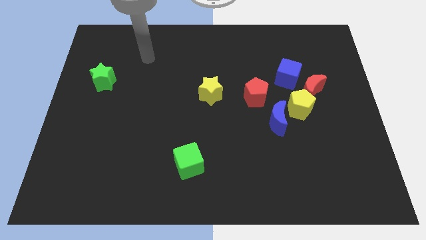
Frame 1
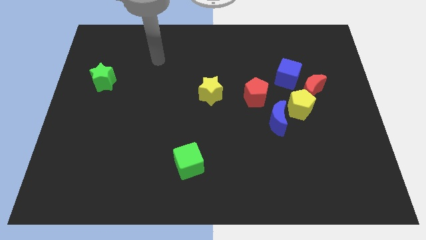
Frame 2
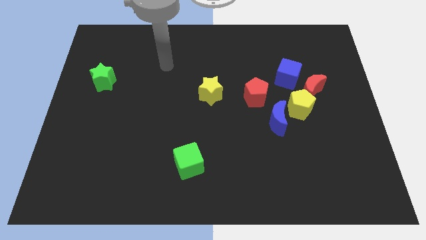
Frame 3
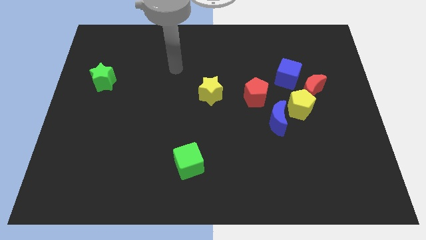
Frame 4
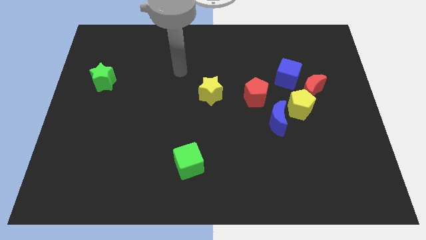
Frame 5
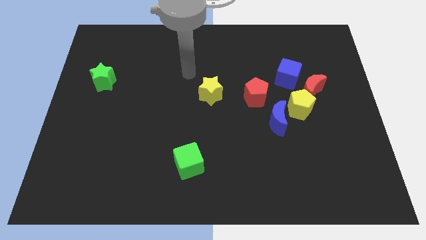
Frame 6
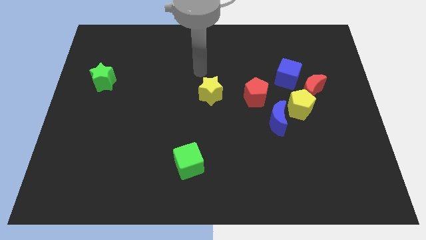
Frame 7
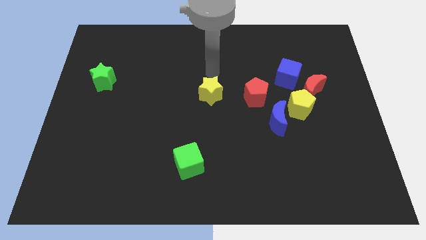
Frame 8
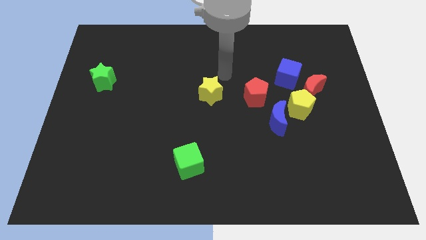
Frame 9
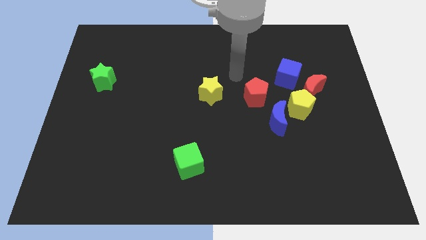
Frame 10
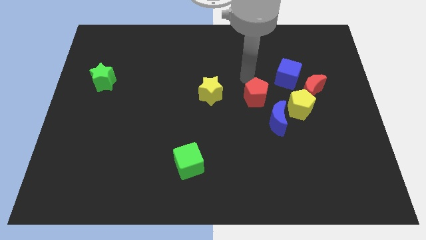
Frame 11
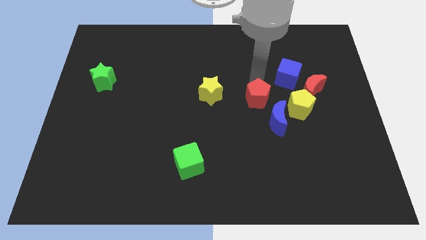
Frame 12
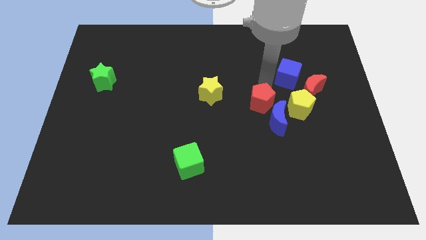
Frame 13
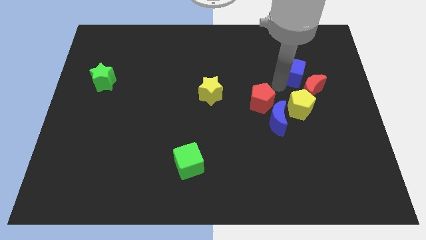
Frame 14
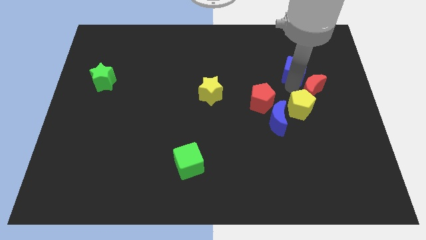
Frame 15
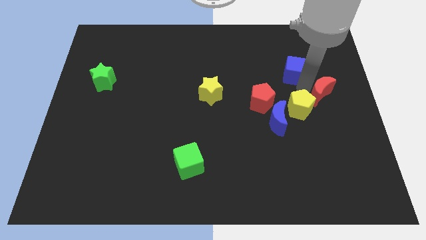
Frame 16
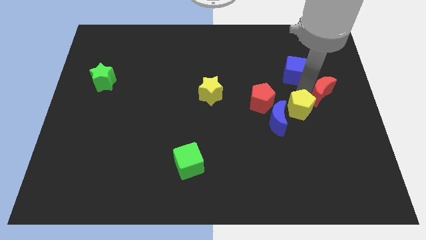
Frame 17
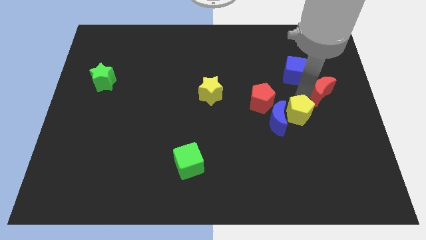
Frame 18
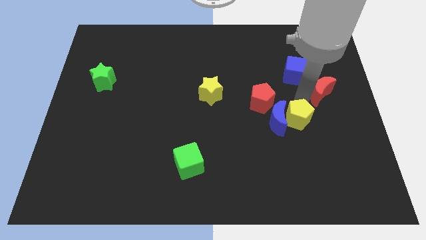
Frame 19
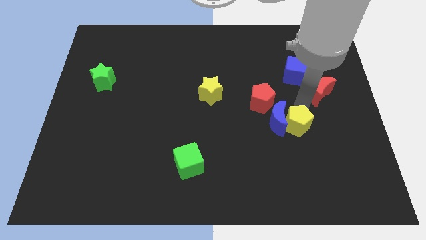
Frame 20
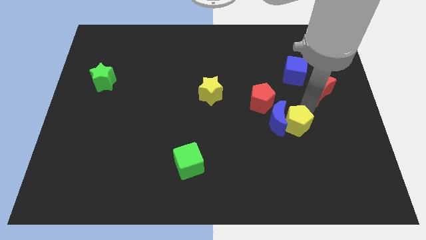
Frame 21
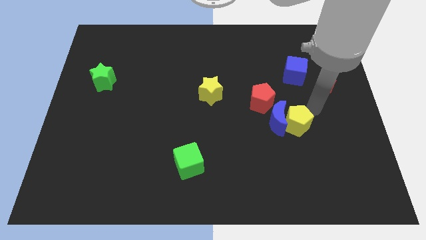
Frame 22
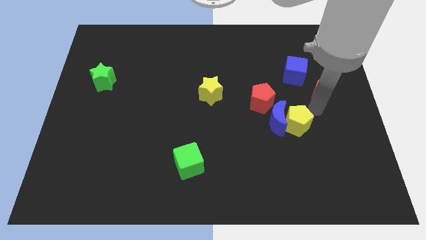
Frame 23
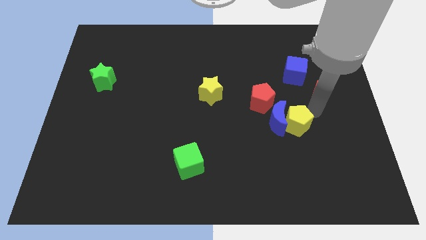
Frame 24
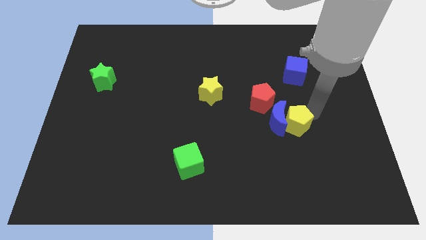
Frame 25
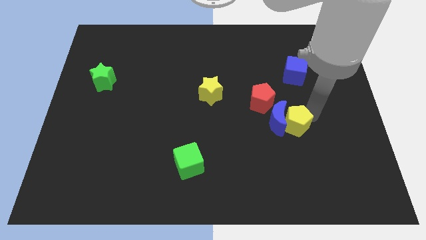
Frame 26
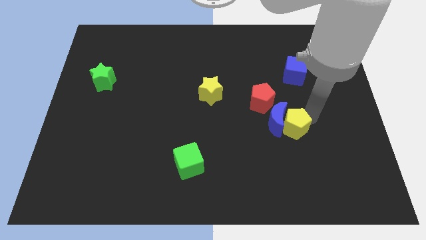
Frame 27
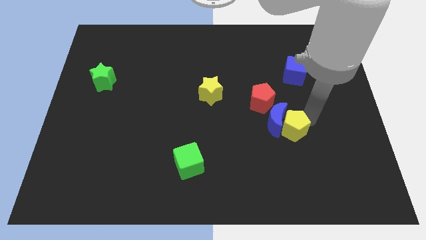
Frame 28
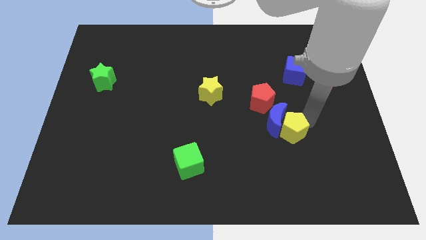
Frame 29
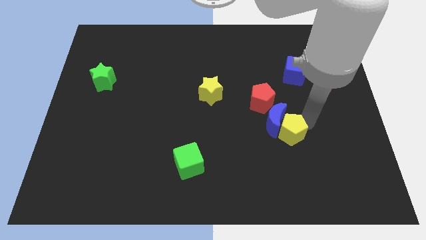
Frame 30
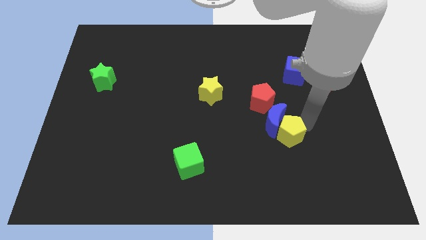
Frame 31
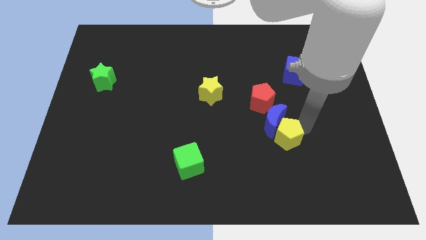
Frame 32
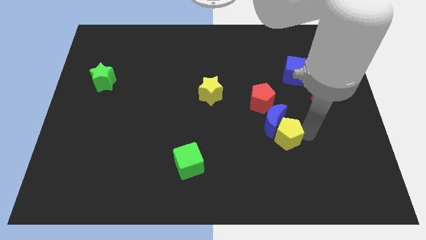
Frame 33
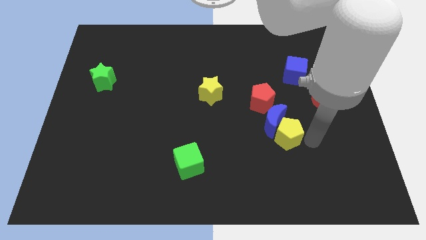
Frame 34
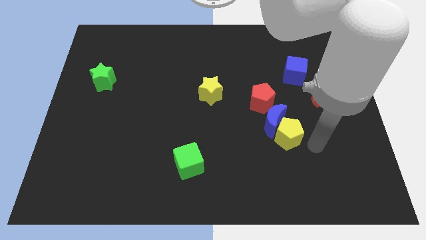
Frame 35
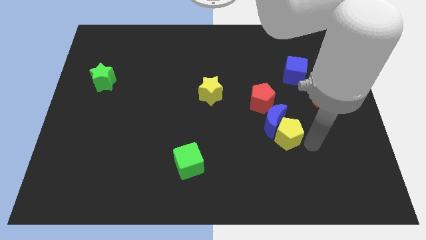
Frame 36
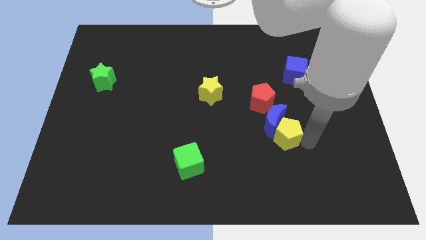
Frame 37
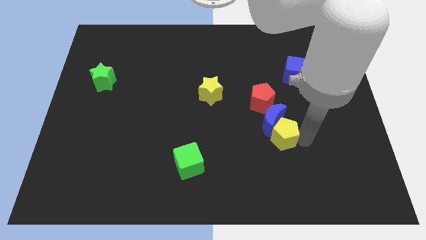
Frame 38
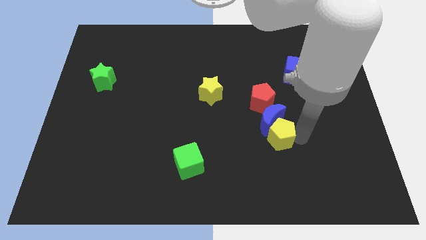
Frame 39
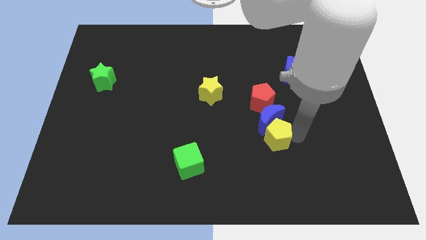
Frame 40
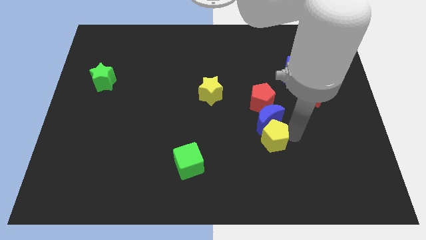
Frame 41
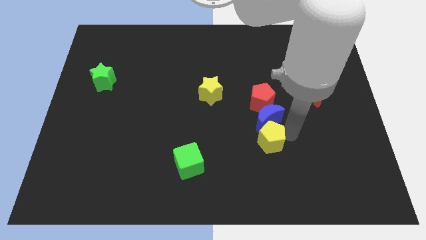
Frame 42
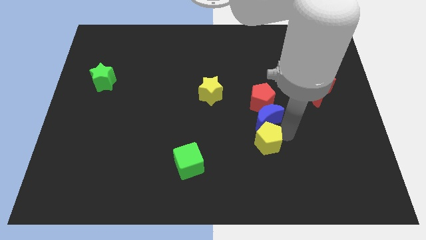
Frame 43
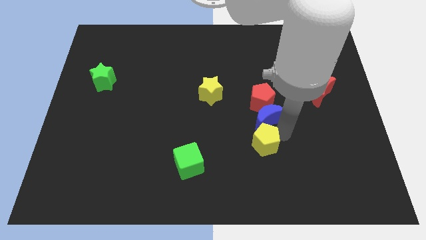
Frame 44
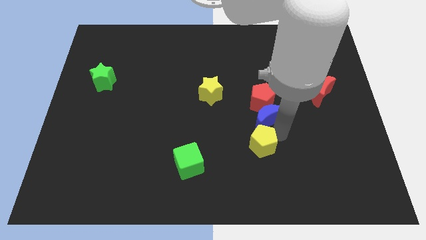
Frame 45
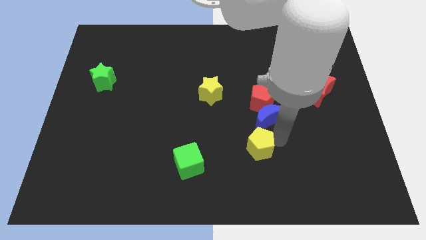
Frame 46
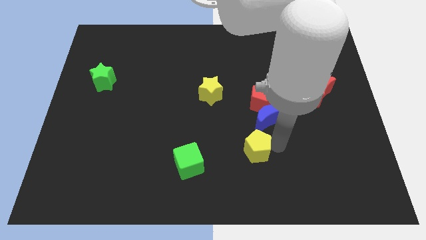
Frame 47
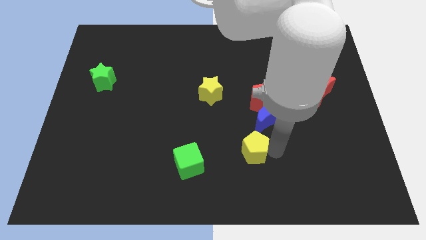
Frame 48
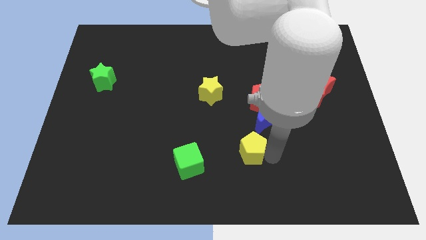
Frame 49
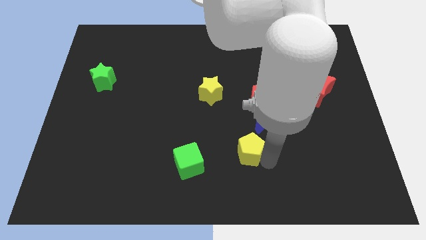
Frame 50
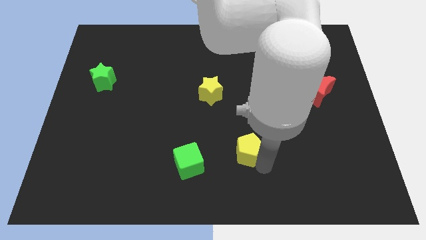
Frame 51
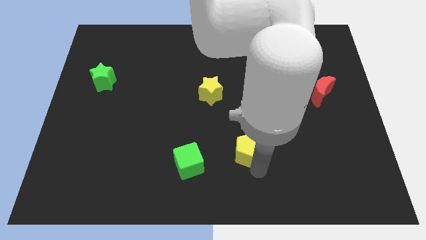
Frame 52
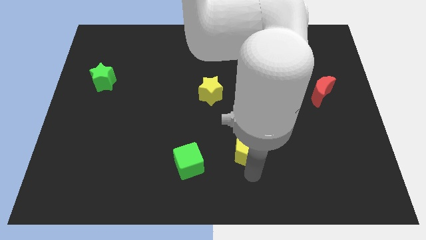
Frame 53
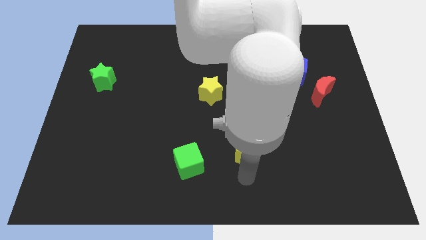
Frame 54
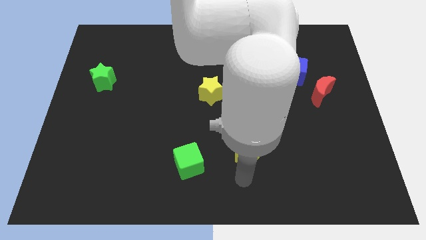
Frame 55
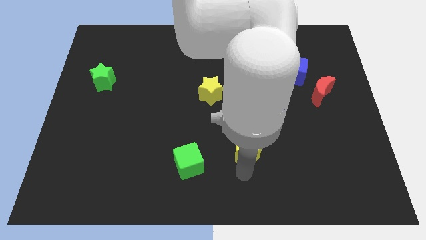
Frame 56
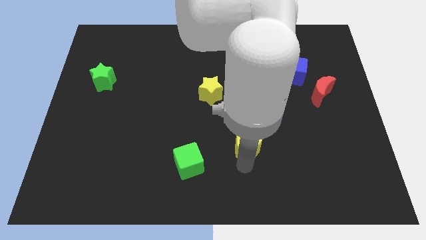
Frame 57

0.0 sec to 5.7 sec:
push the yellow pentagon slightly left

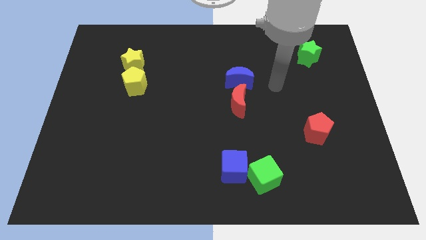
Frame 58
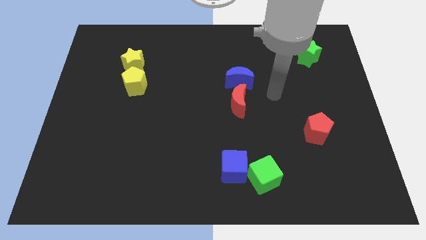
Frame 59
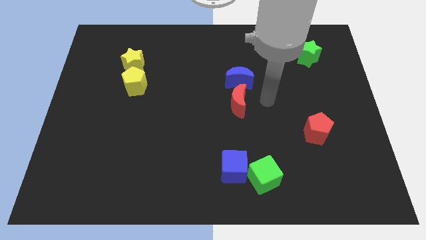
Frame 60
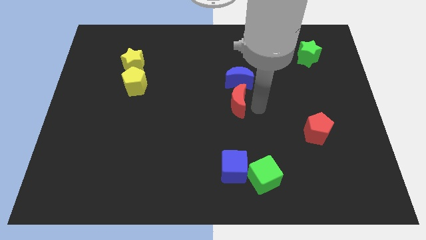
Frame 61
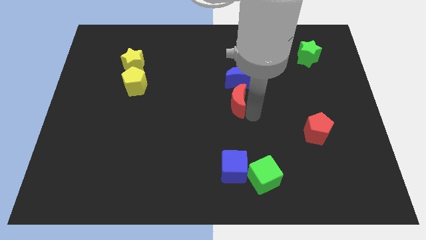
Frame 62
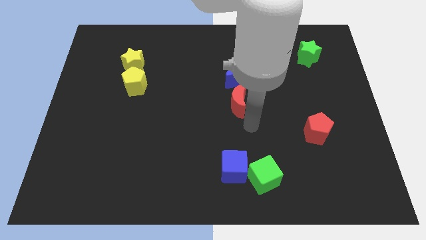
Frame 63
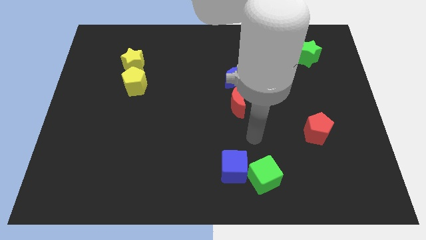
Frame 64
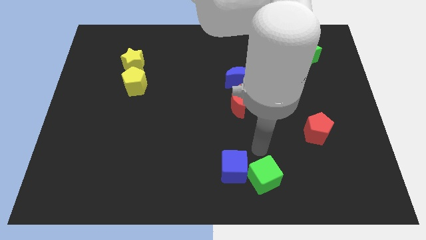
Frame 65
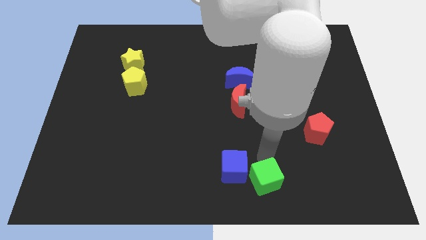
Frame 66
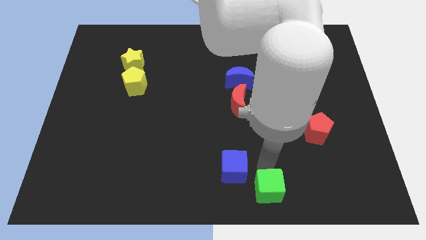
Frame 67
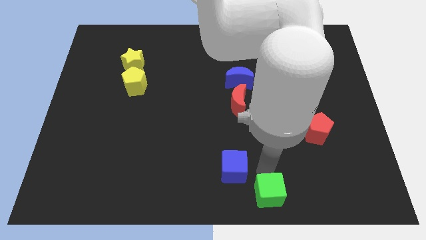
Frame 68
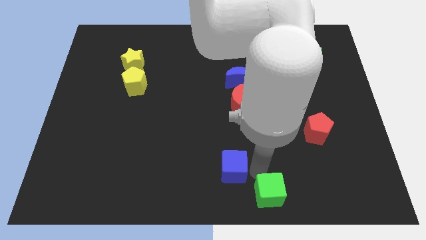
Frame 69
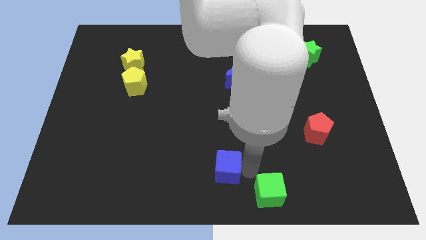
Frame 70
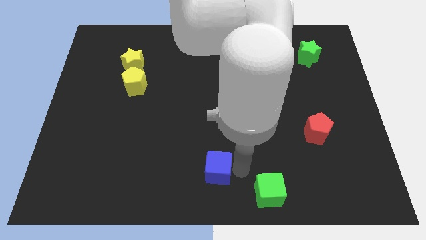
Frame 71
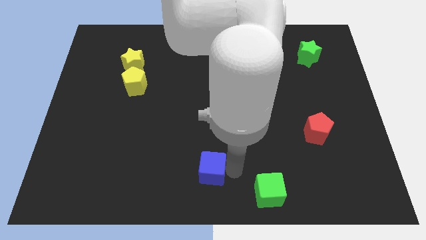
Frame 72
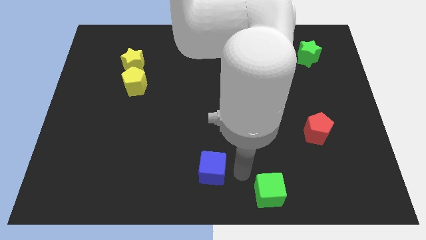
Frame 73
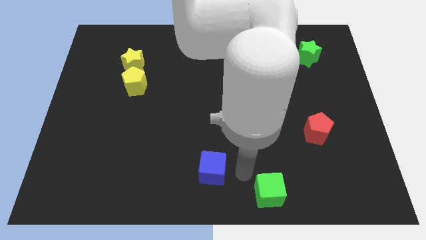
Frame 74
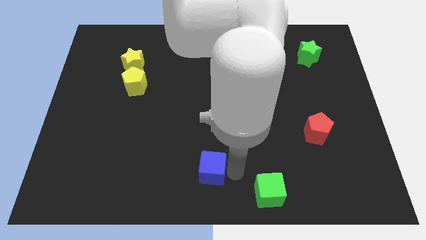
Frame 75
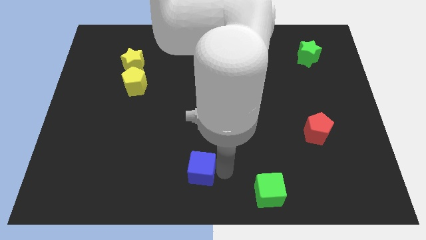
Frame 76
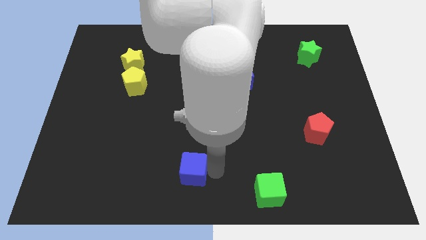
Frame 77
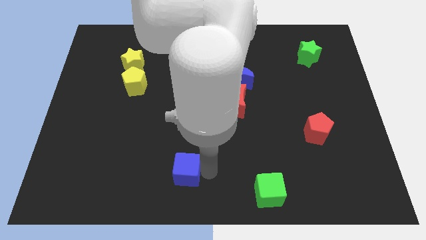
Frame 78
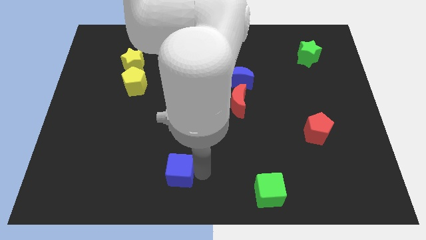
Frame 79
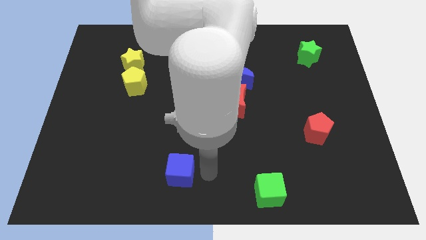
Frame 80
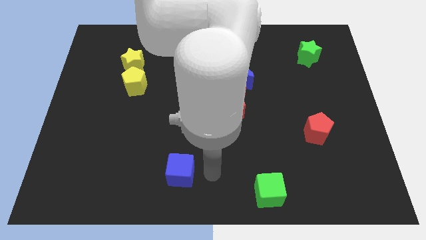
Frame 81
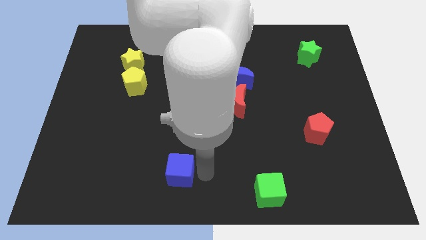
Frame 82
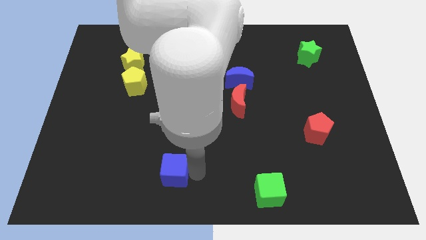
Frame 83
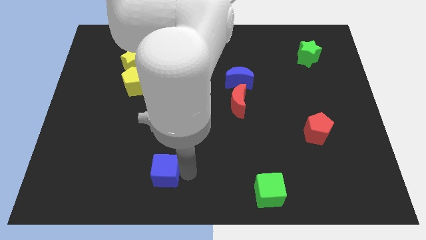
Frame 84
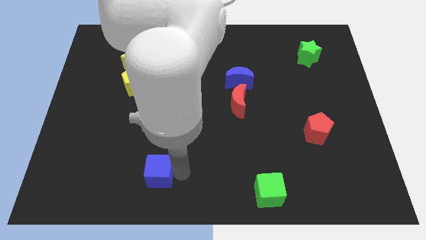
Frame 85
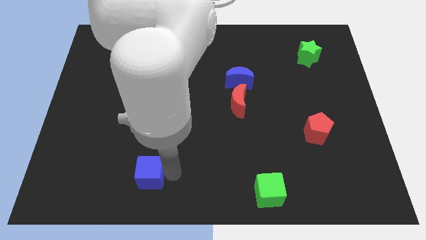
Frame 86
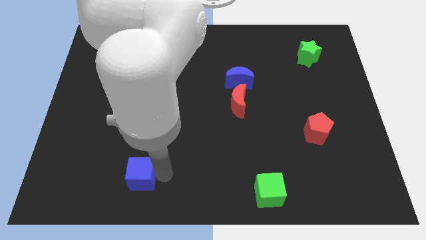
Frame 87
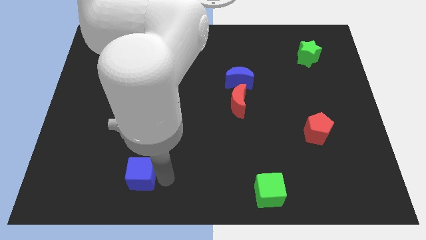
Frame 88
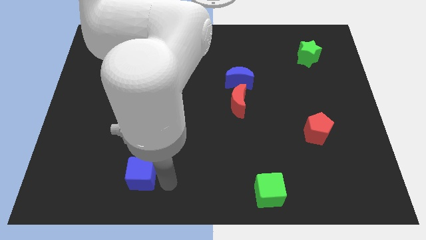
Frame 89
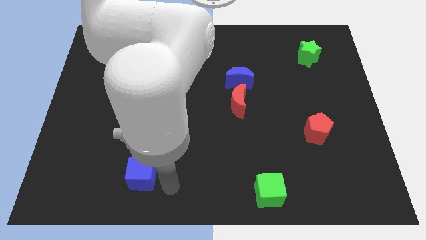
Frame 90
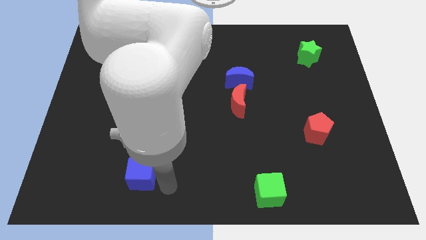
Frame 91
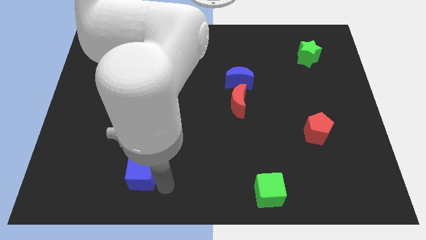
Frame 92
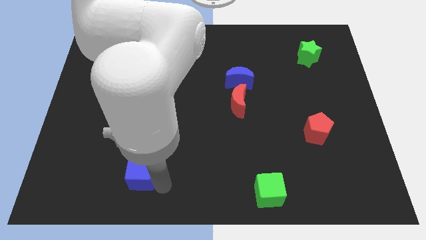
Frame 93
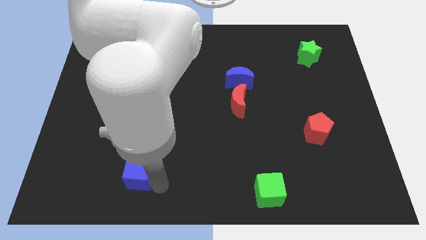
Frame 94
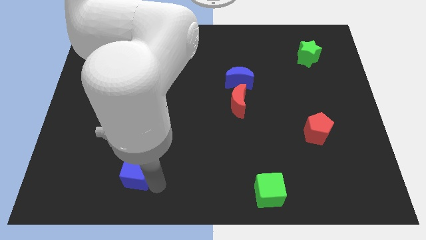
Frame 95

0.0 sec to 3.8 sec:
push the blue cube left
